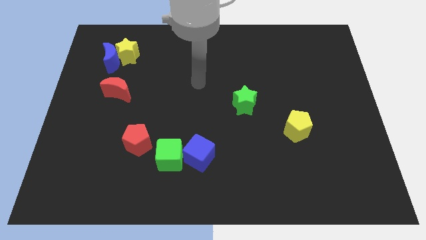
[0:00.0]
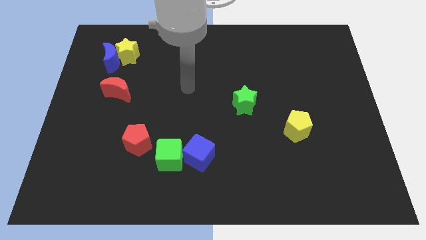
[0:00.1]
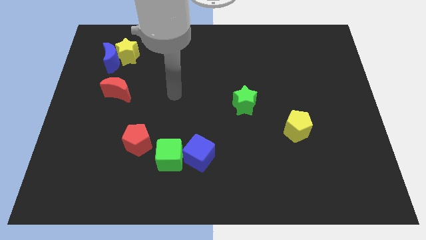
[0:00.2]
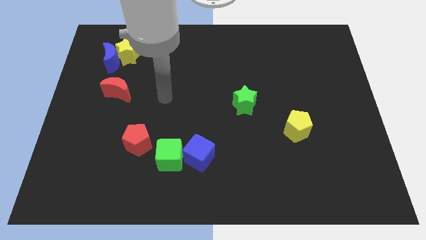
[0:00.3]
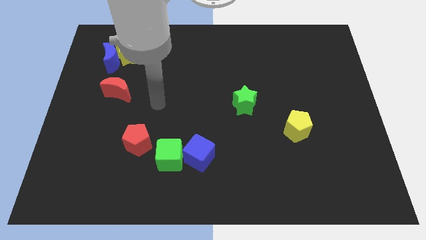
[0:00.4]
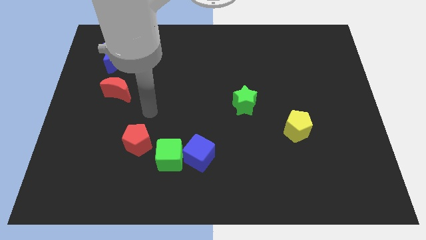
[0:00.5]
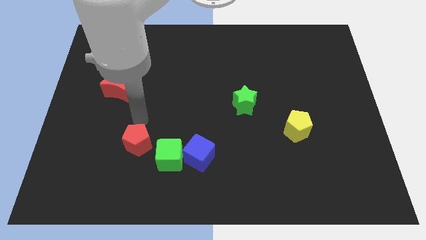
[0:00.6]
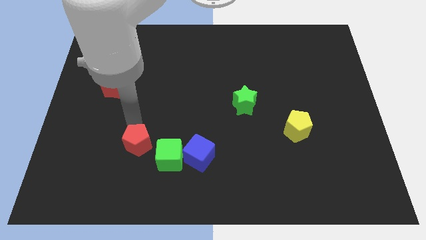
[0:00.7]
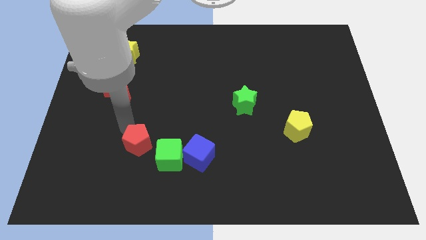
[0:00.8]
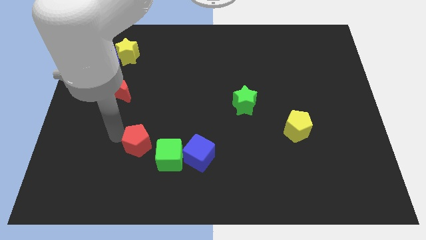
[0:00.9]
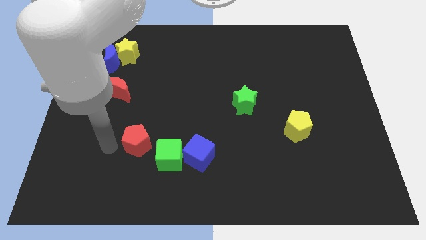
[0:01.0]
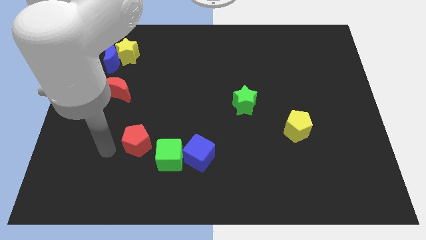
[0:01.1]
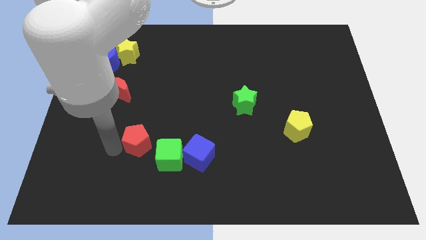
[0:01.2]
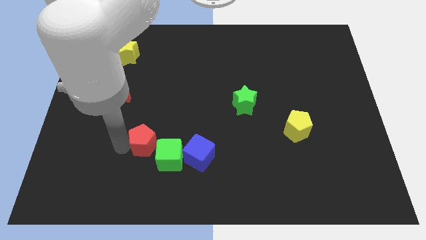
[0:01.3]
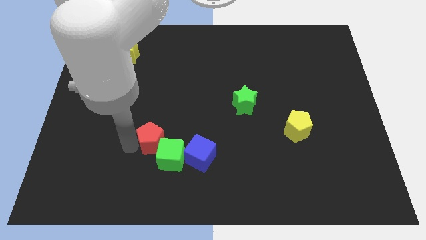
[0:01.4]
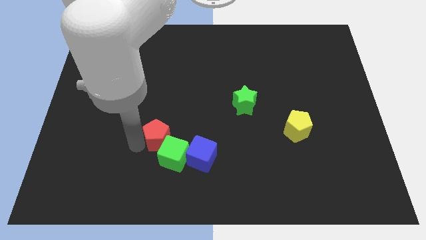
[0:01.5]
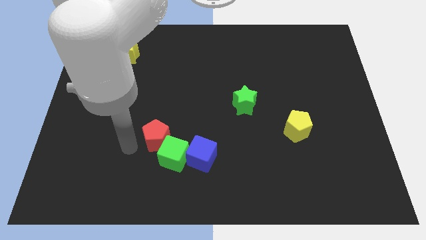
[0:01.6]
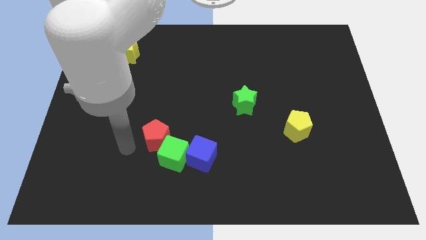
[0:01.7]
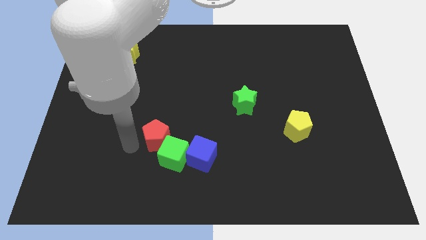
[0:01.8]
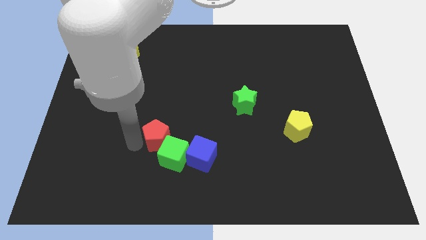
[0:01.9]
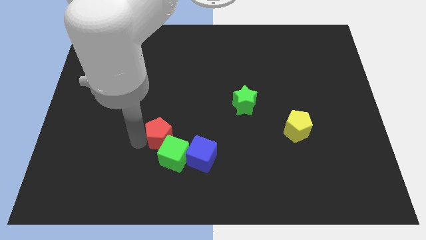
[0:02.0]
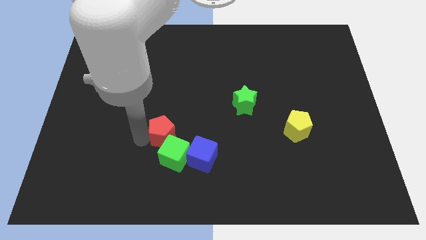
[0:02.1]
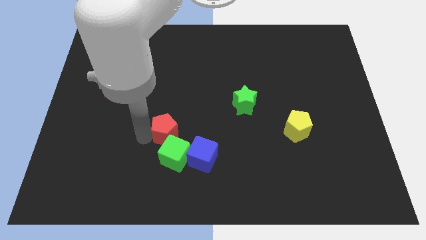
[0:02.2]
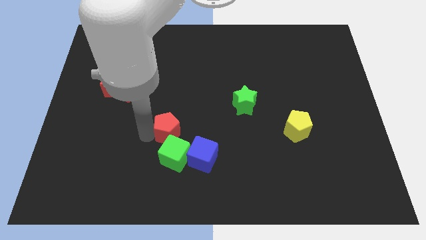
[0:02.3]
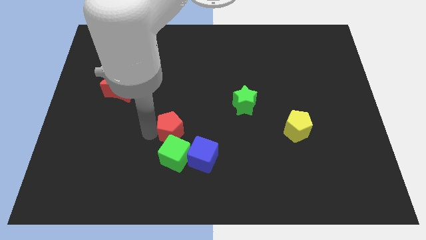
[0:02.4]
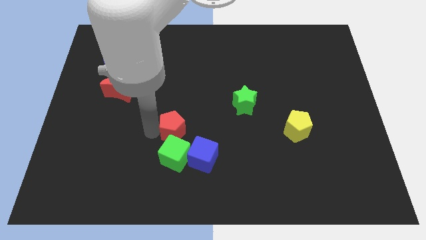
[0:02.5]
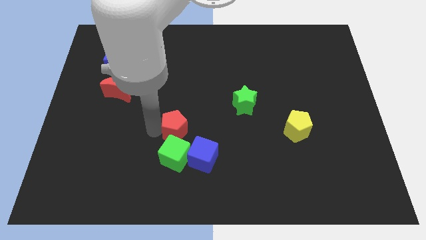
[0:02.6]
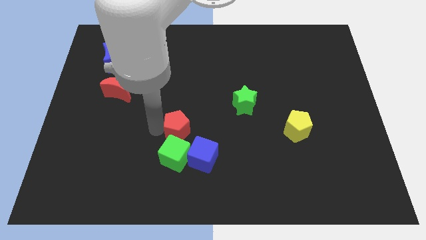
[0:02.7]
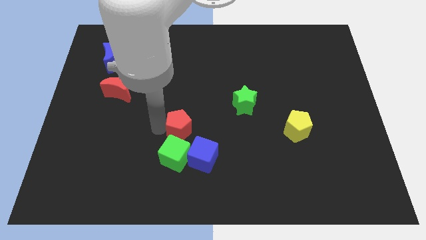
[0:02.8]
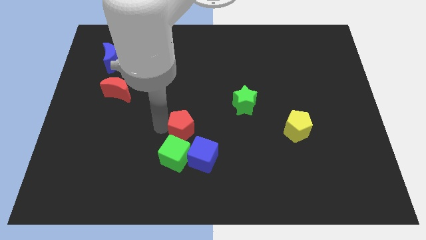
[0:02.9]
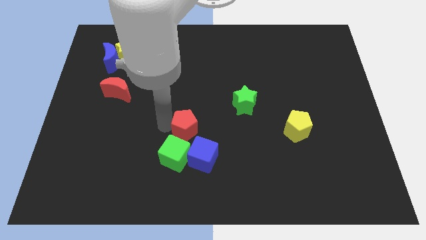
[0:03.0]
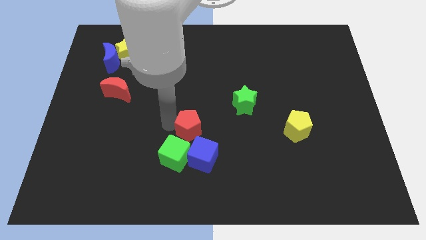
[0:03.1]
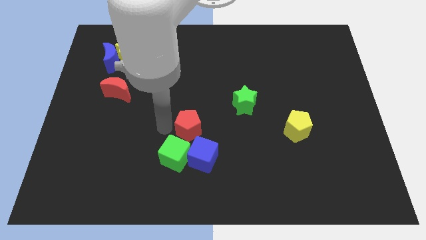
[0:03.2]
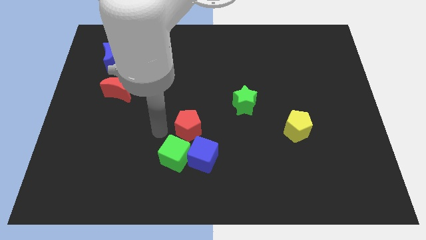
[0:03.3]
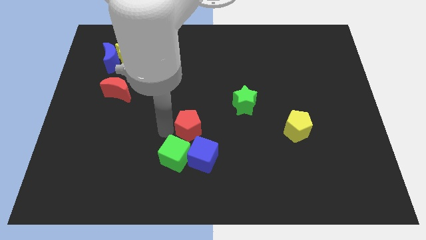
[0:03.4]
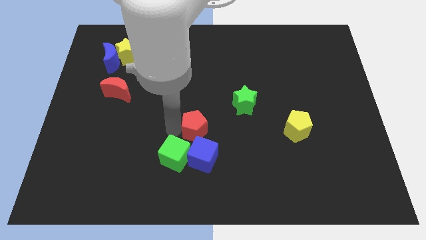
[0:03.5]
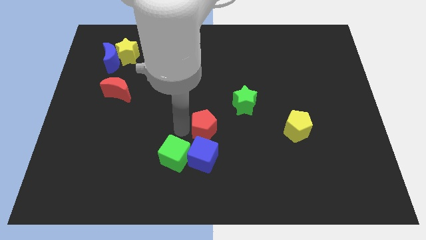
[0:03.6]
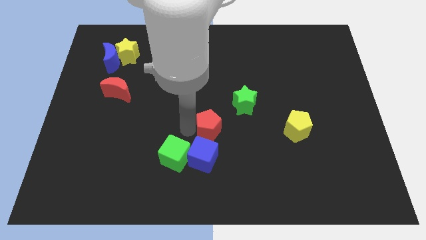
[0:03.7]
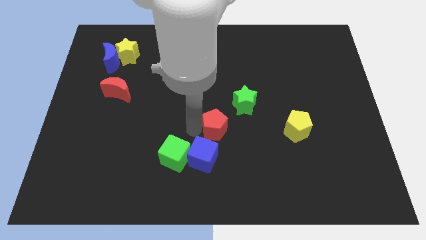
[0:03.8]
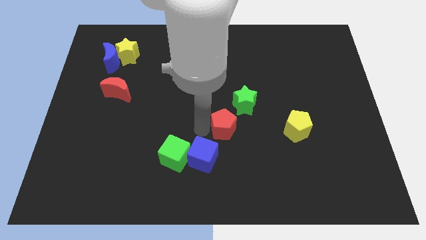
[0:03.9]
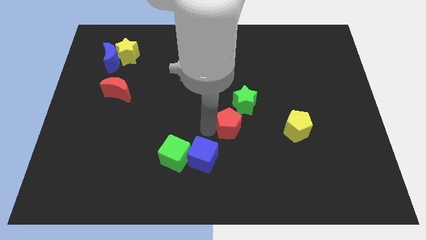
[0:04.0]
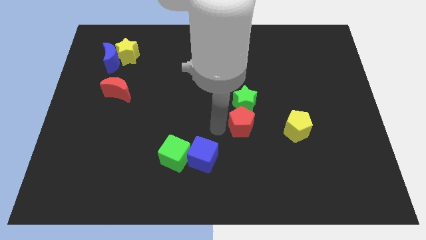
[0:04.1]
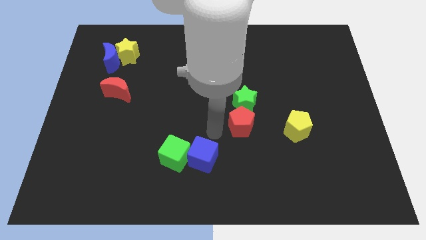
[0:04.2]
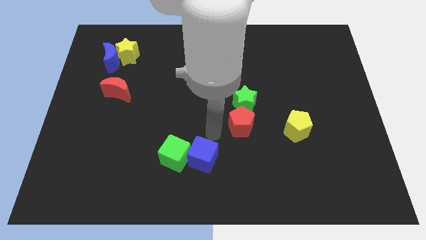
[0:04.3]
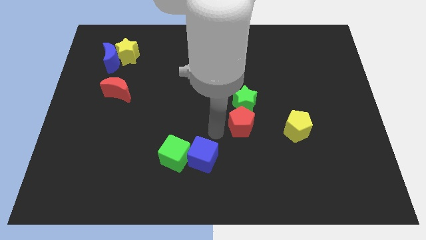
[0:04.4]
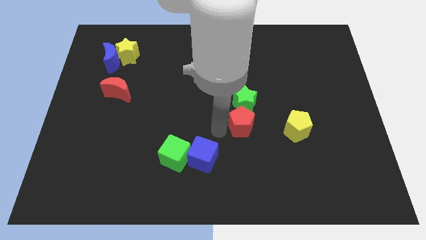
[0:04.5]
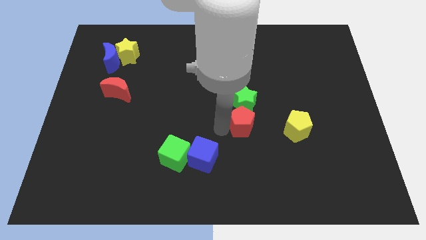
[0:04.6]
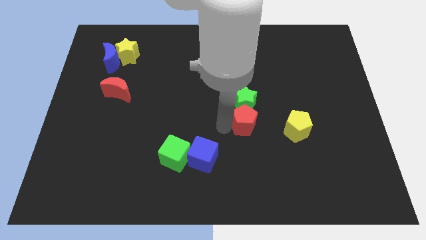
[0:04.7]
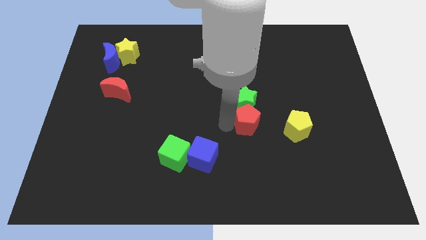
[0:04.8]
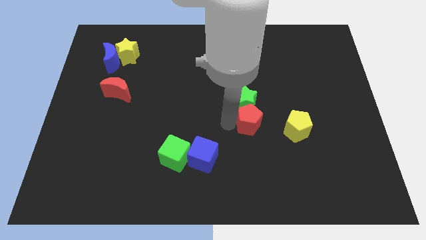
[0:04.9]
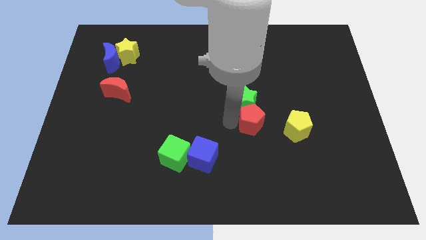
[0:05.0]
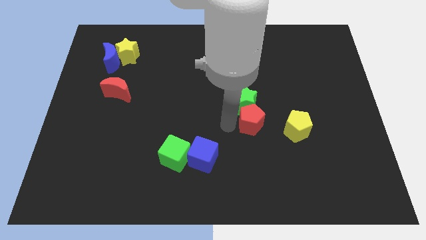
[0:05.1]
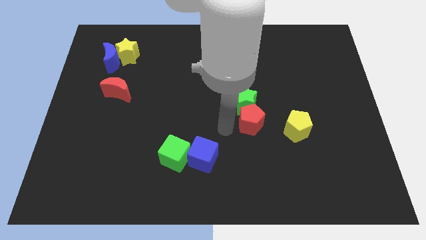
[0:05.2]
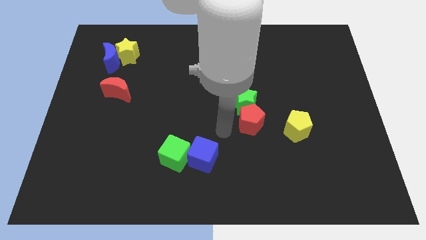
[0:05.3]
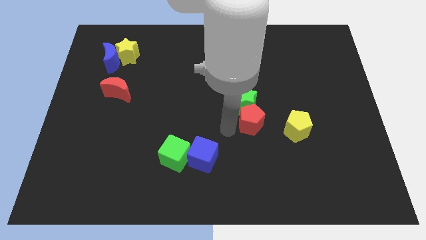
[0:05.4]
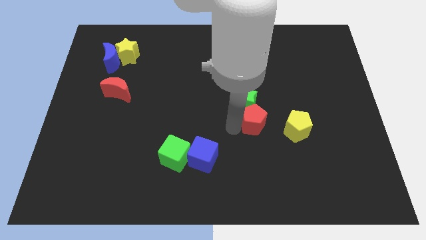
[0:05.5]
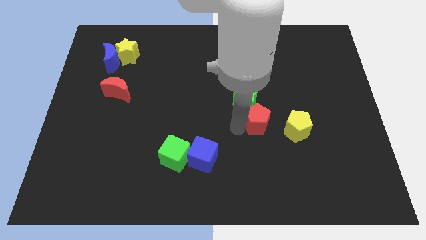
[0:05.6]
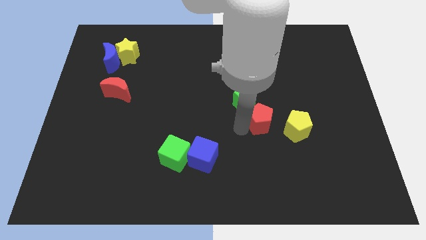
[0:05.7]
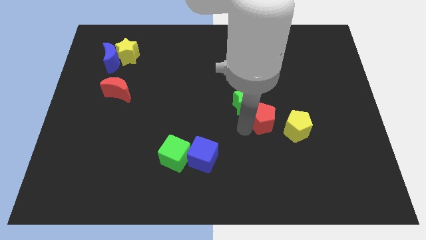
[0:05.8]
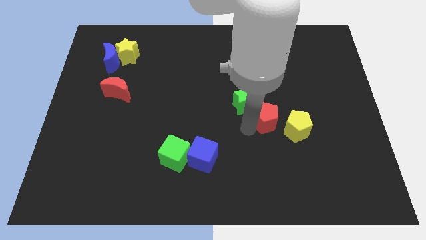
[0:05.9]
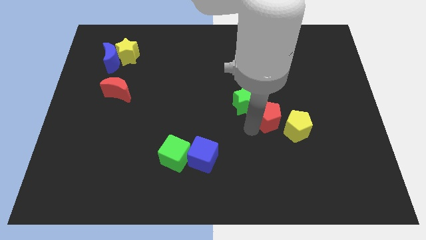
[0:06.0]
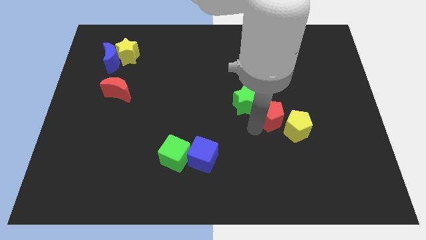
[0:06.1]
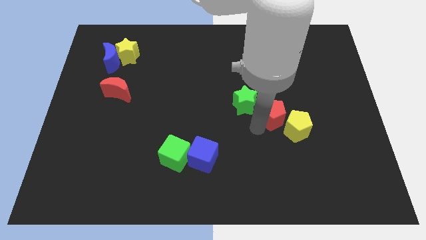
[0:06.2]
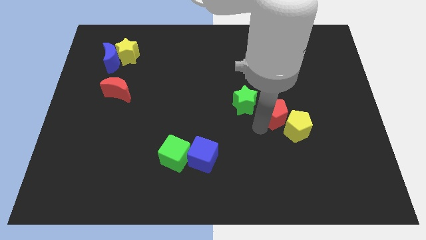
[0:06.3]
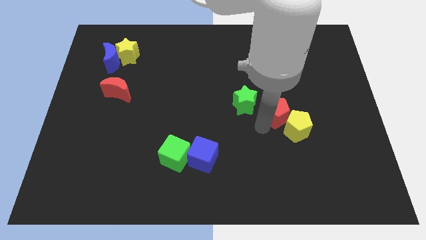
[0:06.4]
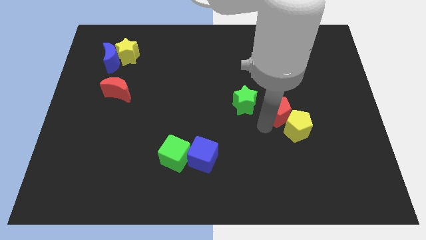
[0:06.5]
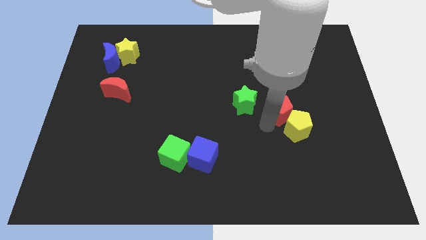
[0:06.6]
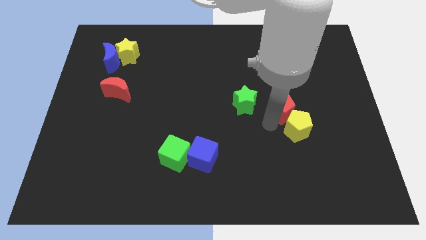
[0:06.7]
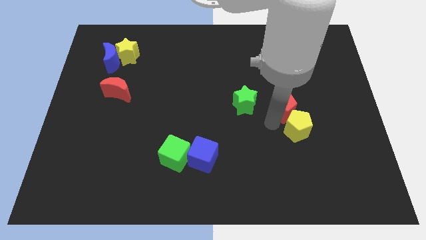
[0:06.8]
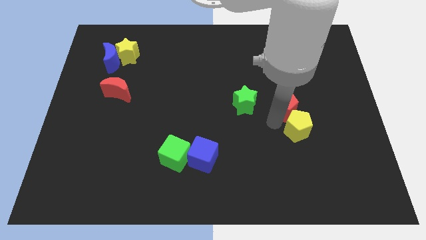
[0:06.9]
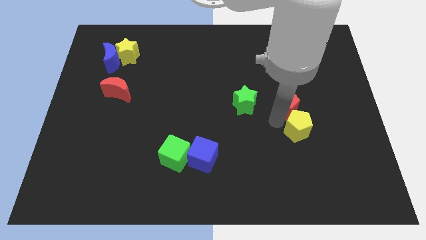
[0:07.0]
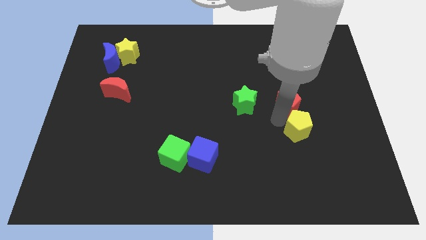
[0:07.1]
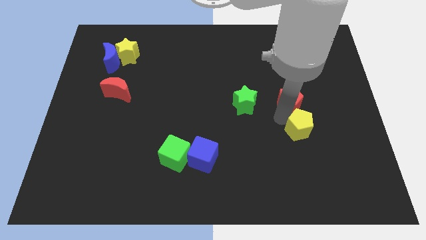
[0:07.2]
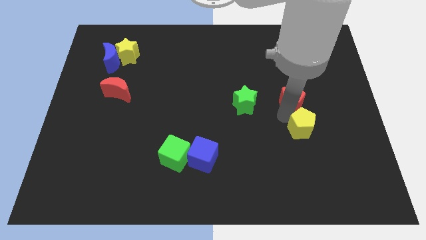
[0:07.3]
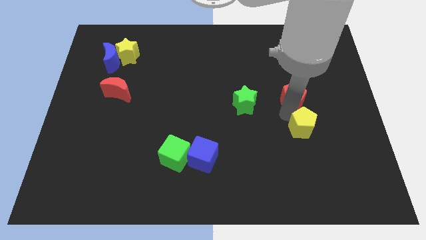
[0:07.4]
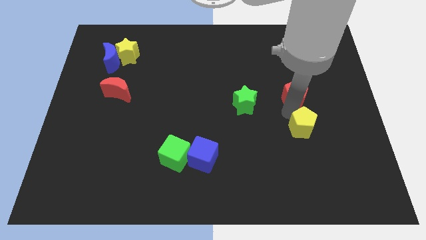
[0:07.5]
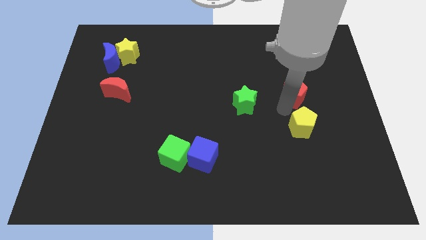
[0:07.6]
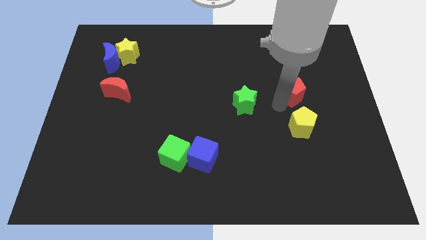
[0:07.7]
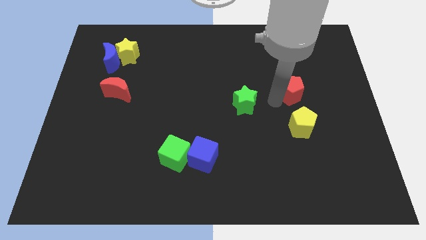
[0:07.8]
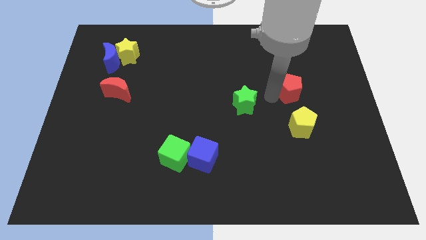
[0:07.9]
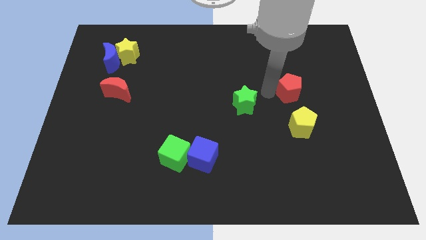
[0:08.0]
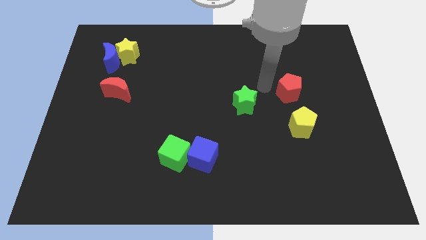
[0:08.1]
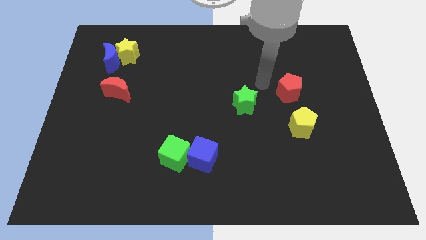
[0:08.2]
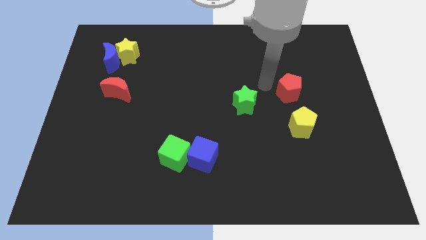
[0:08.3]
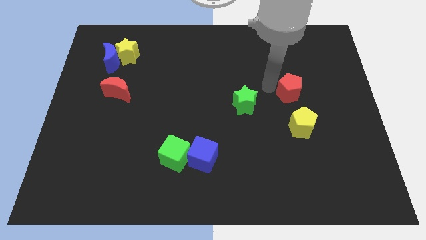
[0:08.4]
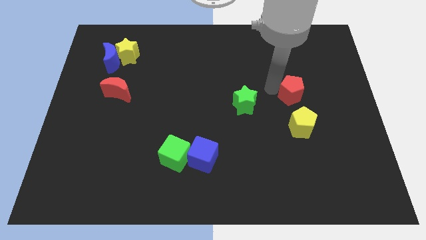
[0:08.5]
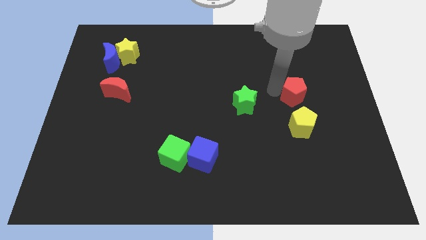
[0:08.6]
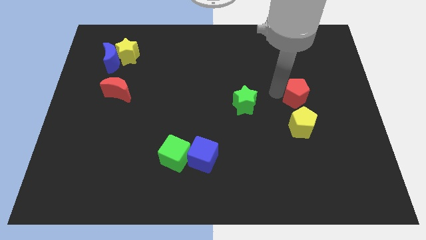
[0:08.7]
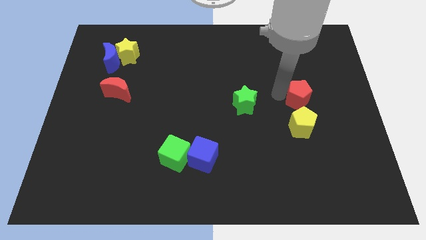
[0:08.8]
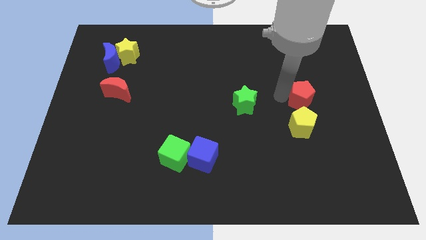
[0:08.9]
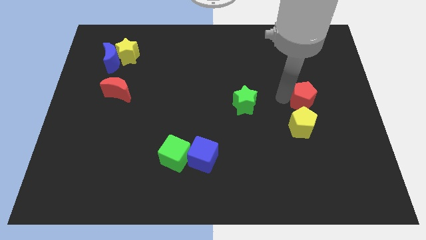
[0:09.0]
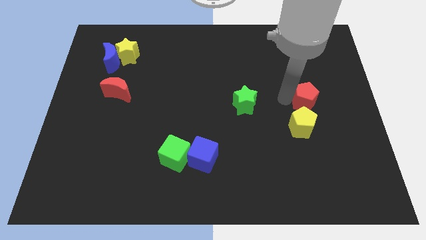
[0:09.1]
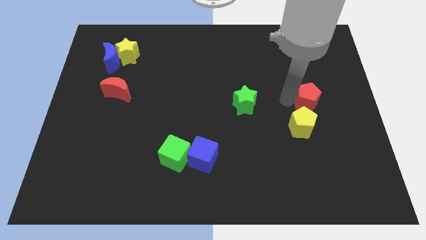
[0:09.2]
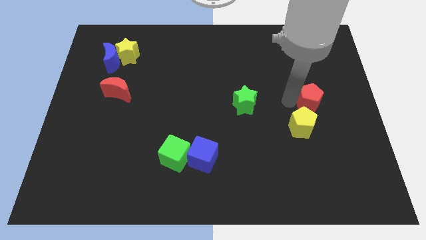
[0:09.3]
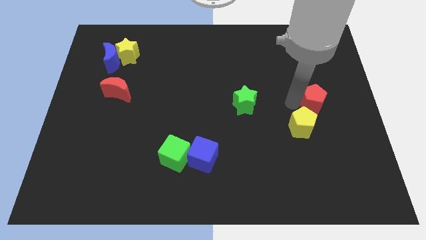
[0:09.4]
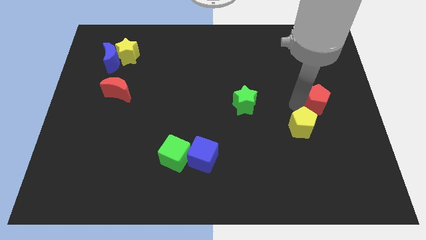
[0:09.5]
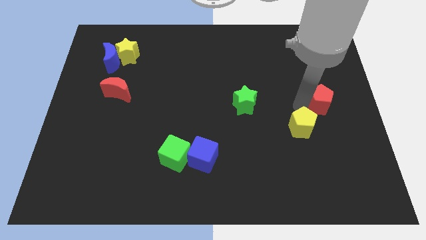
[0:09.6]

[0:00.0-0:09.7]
move the red pentagon to the center right
